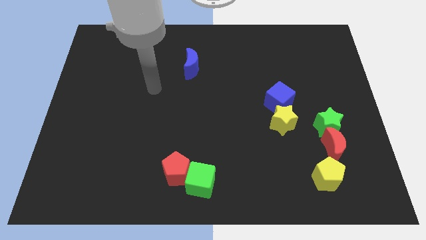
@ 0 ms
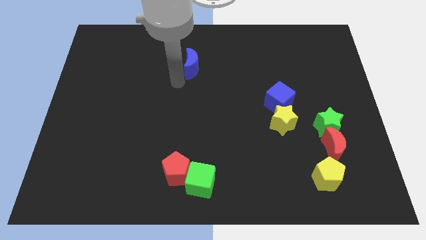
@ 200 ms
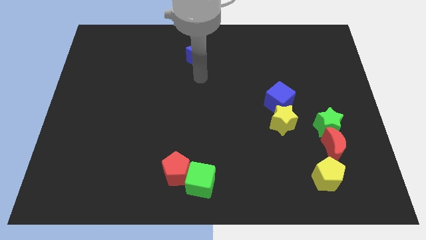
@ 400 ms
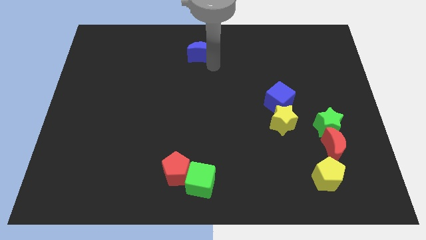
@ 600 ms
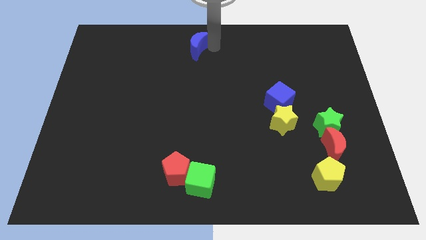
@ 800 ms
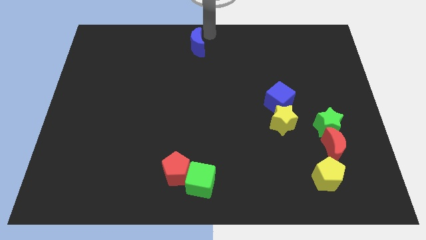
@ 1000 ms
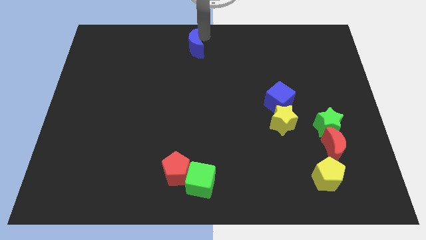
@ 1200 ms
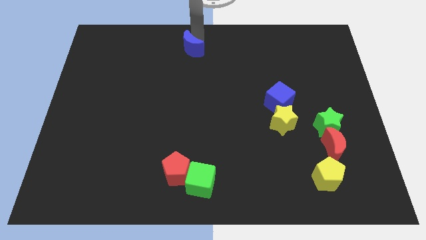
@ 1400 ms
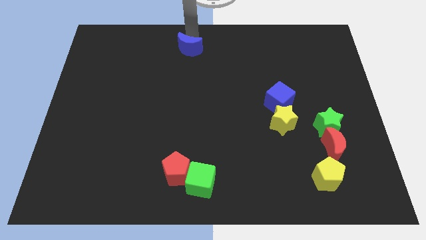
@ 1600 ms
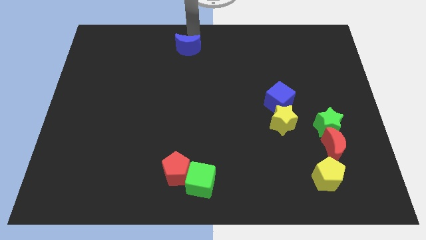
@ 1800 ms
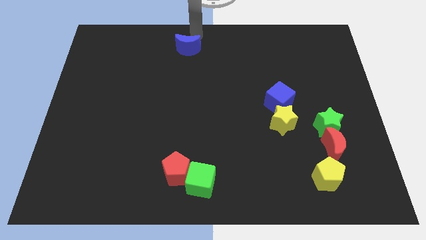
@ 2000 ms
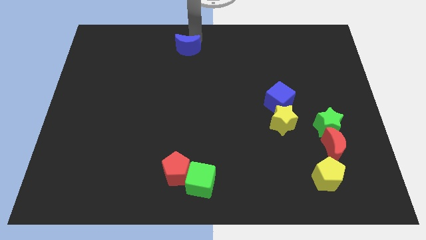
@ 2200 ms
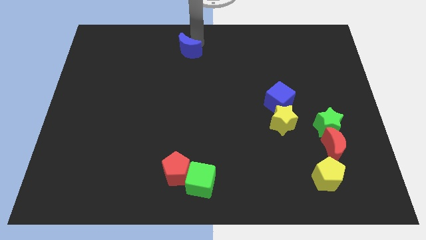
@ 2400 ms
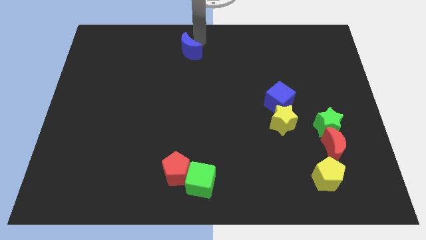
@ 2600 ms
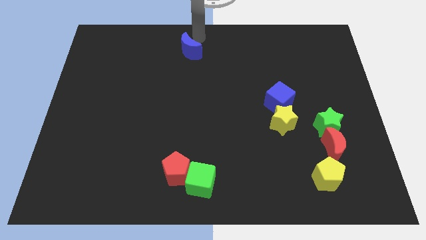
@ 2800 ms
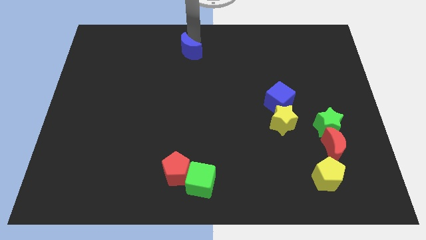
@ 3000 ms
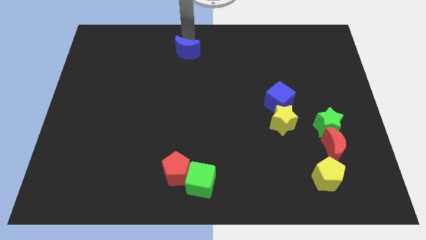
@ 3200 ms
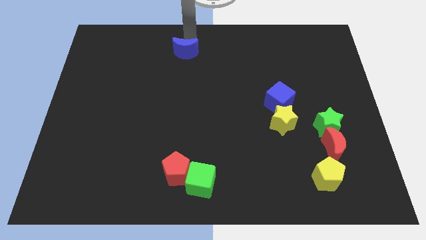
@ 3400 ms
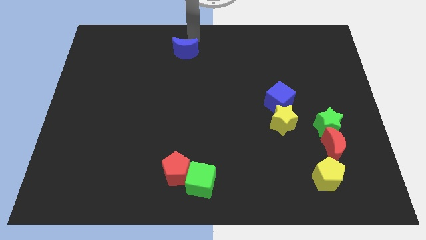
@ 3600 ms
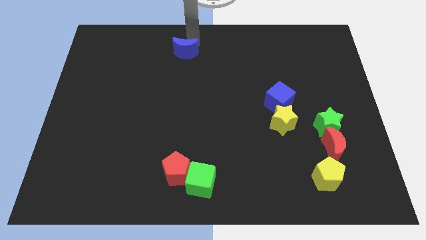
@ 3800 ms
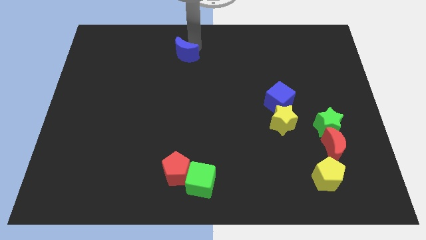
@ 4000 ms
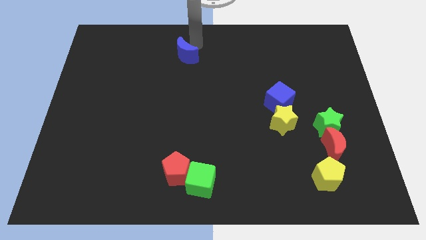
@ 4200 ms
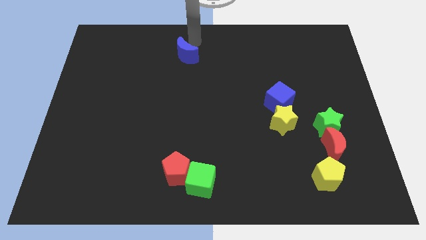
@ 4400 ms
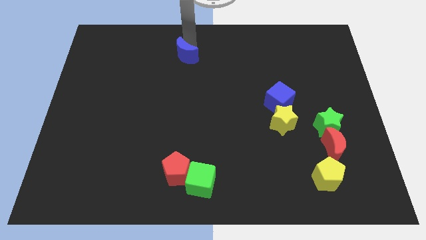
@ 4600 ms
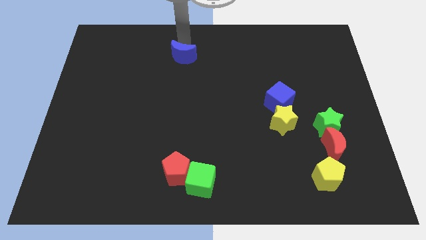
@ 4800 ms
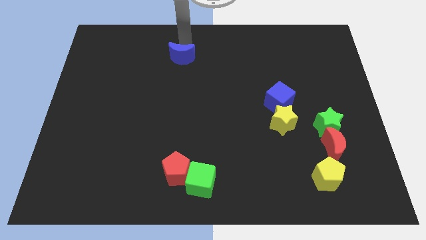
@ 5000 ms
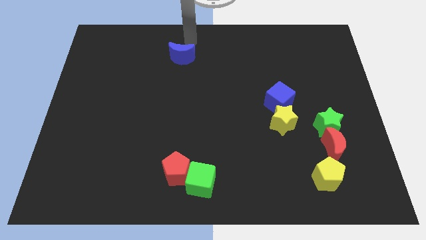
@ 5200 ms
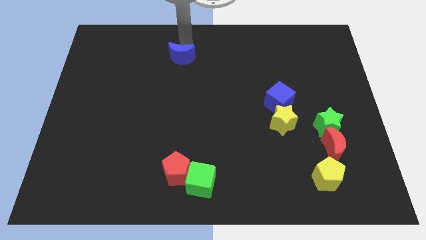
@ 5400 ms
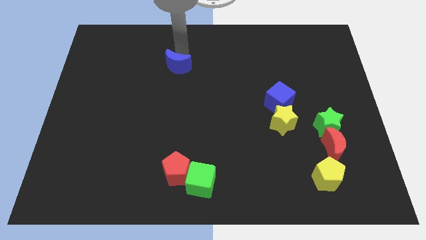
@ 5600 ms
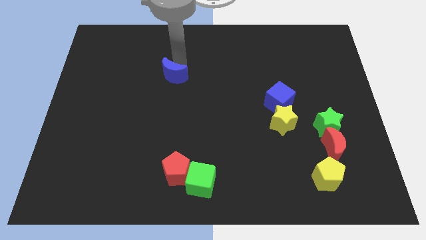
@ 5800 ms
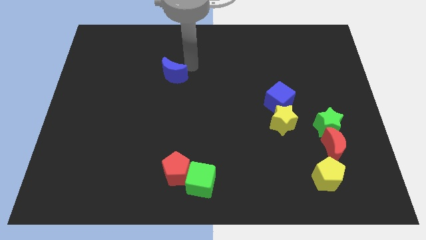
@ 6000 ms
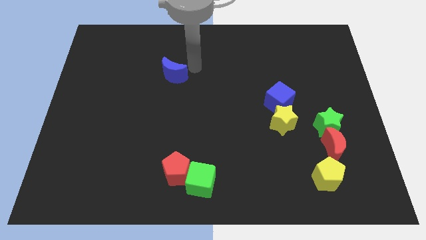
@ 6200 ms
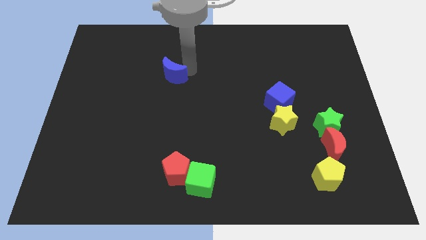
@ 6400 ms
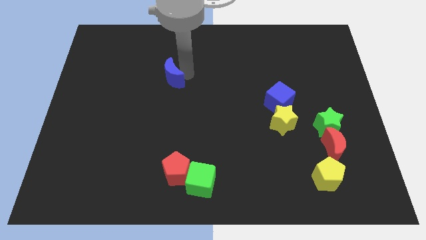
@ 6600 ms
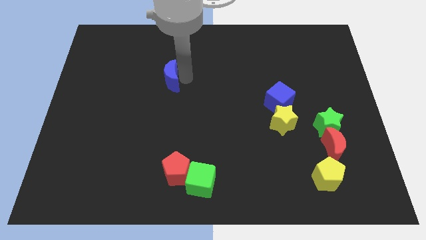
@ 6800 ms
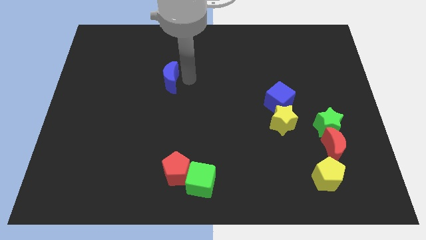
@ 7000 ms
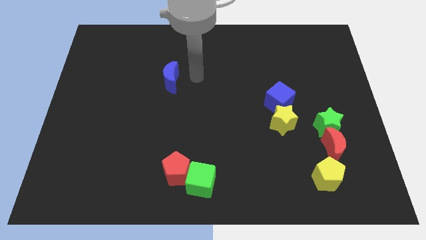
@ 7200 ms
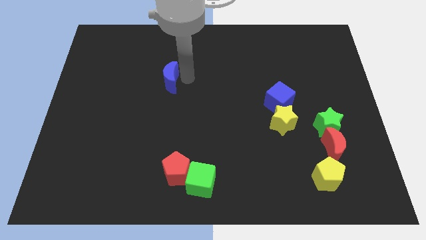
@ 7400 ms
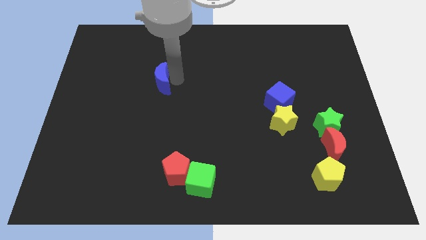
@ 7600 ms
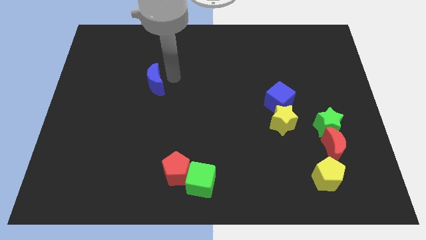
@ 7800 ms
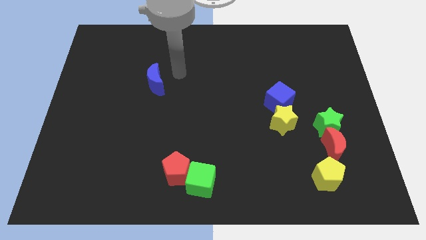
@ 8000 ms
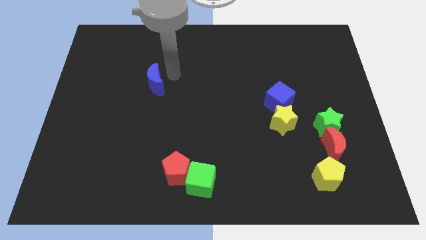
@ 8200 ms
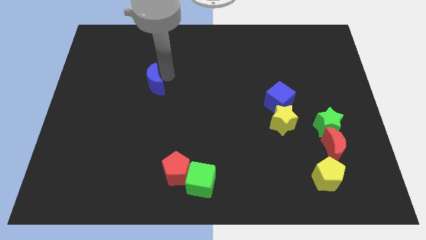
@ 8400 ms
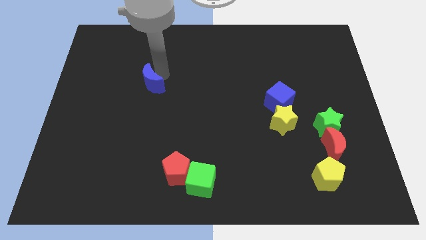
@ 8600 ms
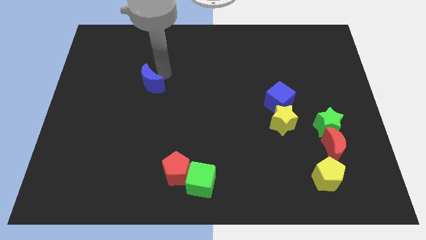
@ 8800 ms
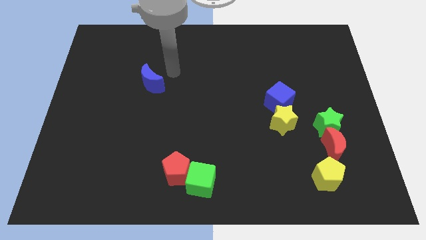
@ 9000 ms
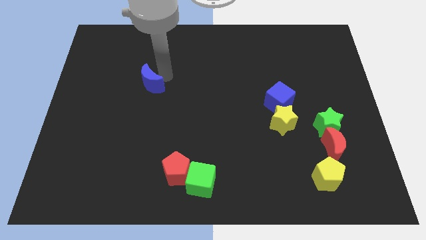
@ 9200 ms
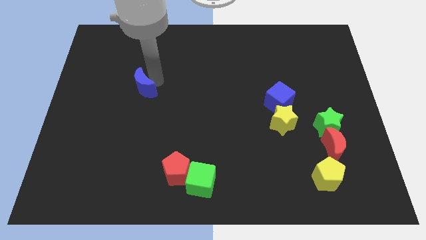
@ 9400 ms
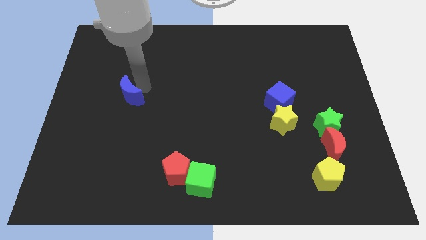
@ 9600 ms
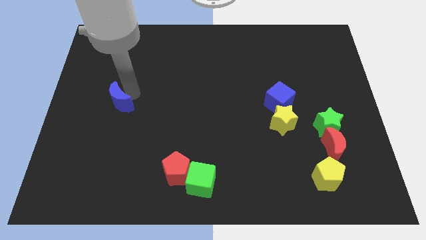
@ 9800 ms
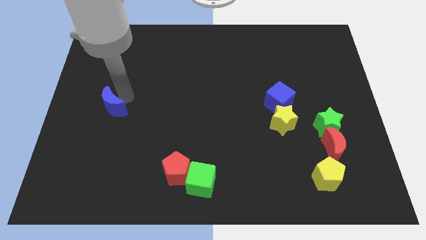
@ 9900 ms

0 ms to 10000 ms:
move the blue moon diagonally down and left

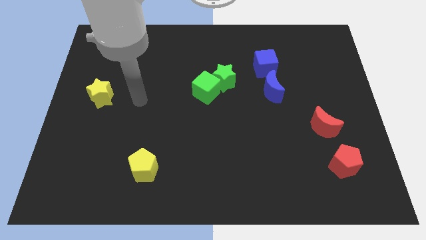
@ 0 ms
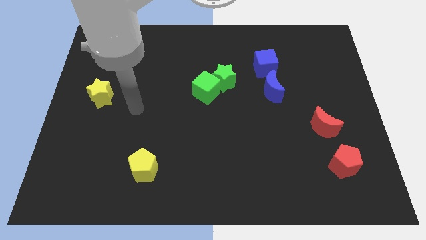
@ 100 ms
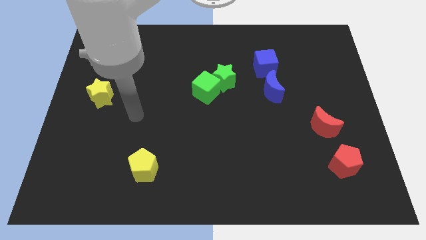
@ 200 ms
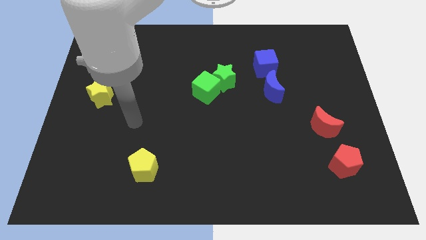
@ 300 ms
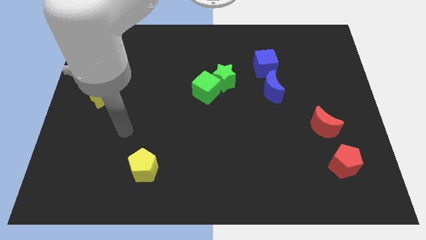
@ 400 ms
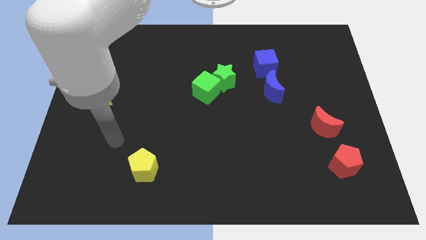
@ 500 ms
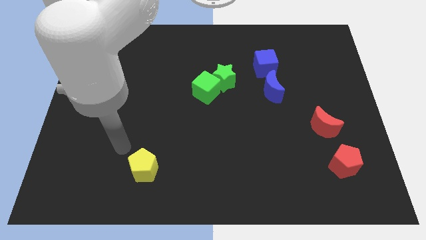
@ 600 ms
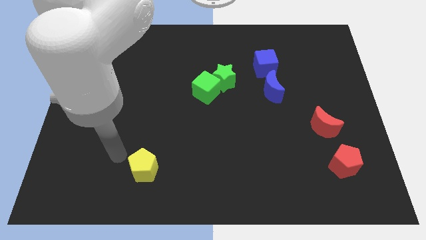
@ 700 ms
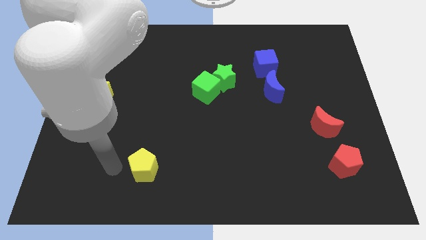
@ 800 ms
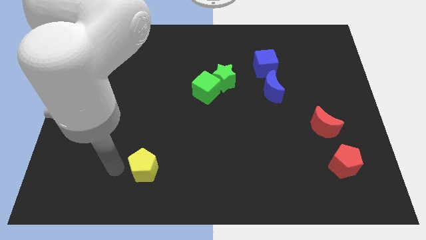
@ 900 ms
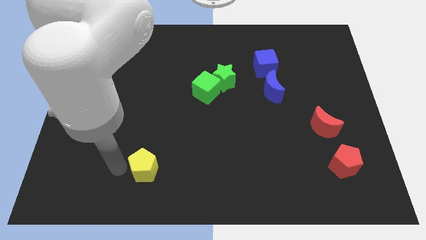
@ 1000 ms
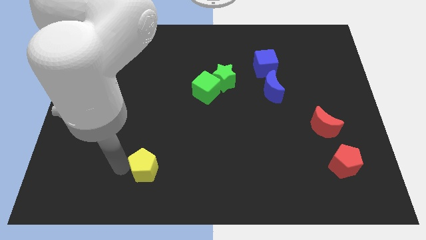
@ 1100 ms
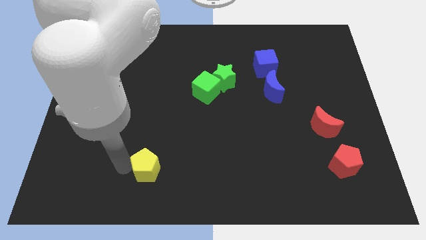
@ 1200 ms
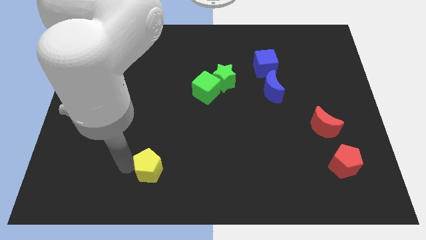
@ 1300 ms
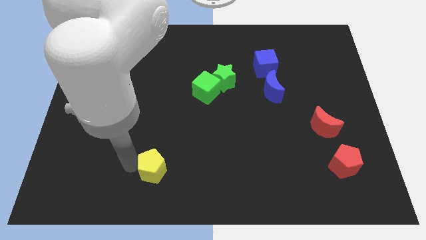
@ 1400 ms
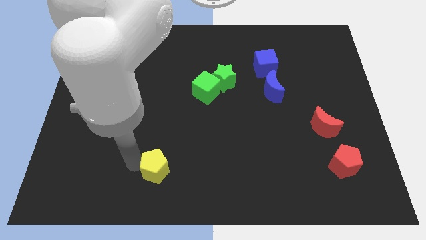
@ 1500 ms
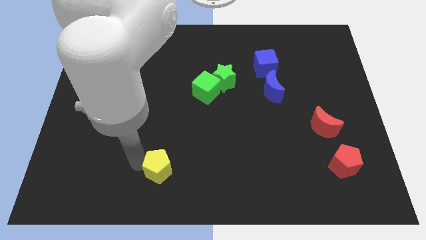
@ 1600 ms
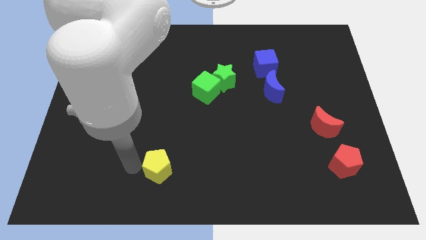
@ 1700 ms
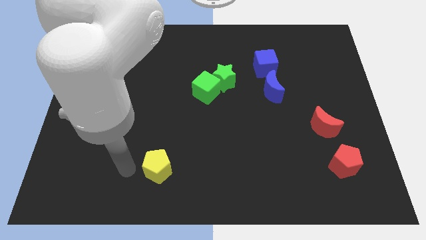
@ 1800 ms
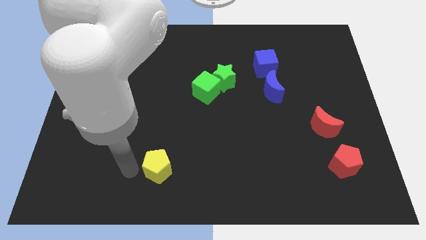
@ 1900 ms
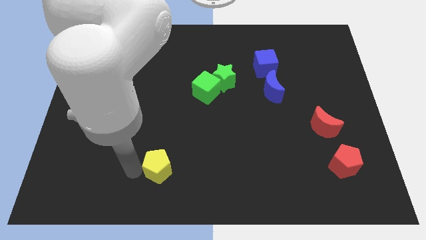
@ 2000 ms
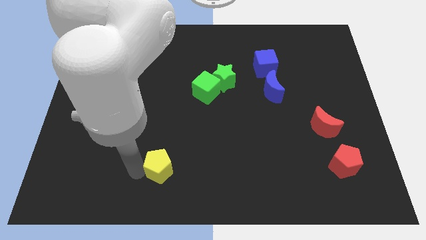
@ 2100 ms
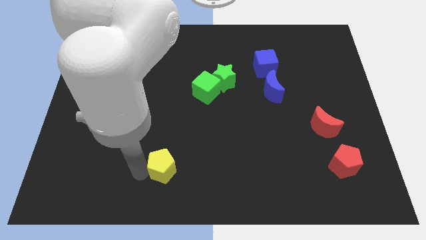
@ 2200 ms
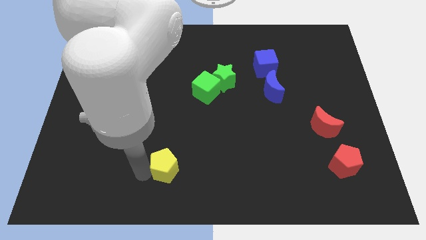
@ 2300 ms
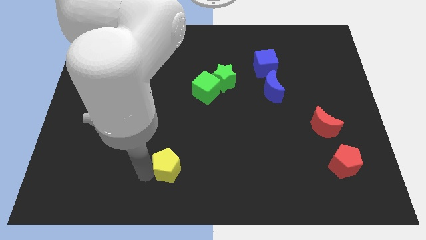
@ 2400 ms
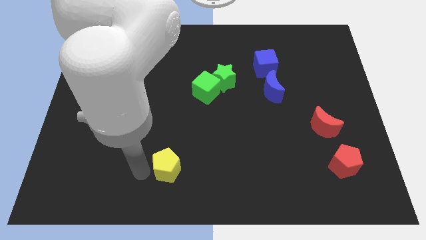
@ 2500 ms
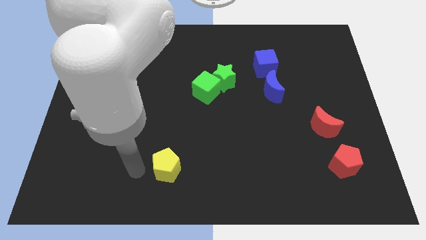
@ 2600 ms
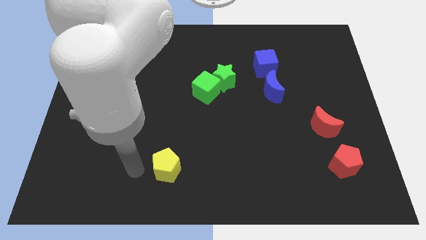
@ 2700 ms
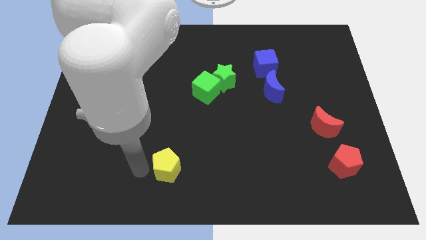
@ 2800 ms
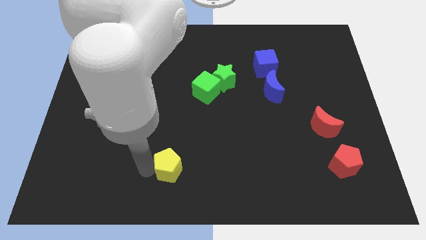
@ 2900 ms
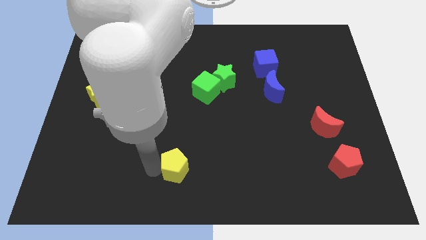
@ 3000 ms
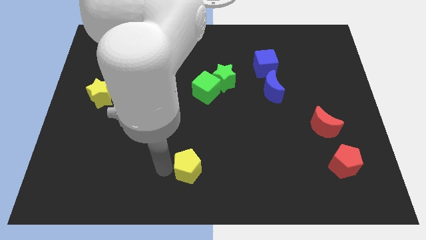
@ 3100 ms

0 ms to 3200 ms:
slightly move the yellow pentagon to the right

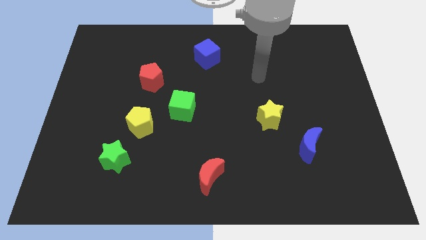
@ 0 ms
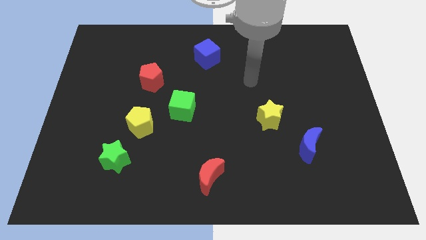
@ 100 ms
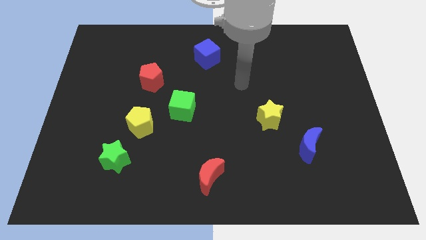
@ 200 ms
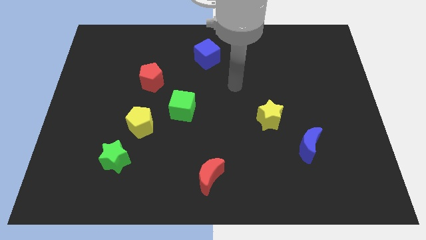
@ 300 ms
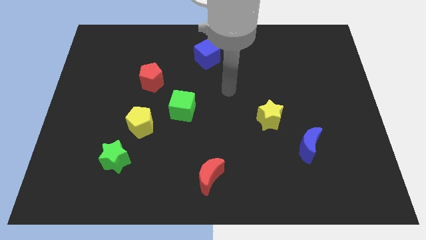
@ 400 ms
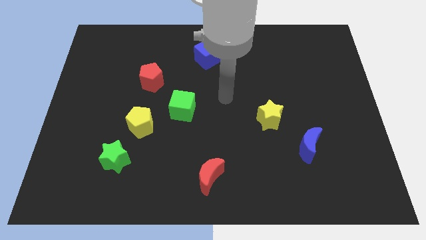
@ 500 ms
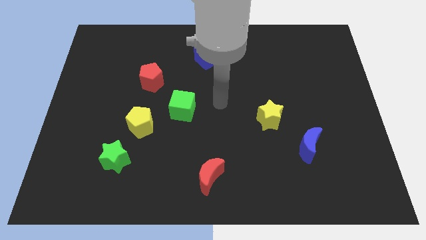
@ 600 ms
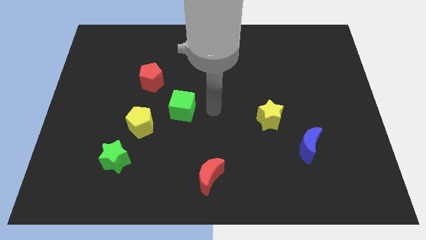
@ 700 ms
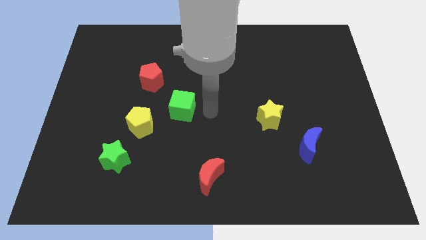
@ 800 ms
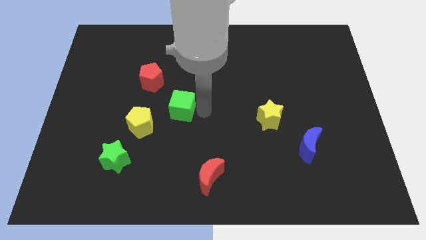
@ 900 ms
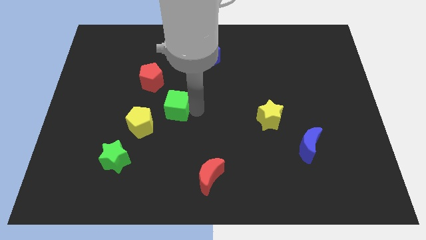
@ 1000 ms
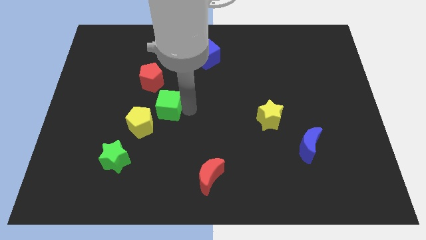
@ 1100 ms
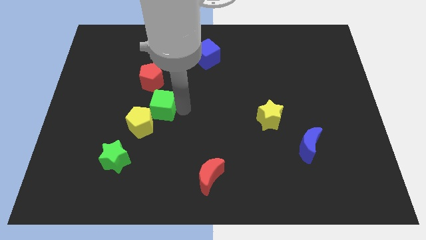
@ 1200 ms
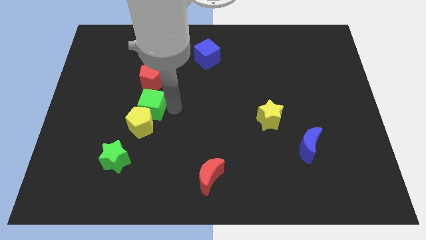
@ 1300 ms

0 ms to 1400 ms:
slightly move the green cube left
